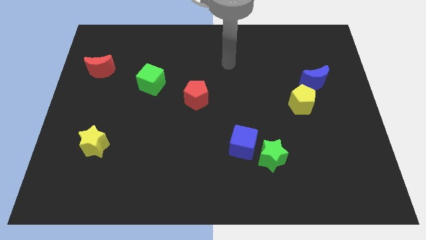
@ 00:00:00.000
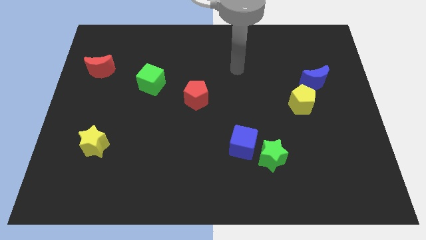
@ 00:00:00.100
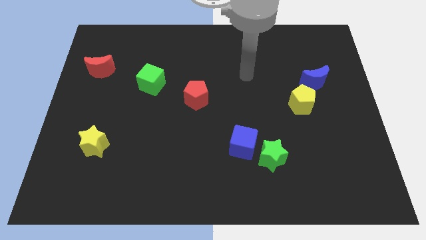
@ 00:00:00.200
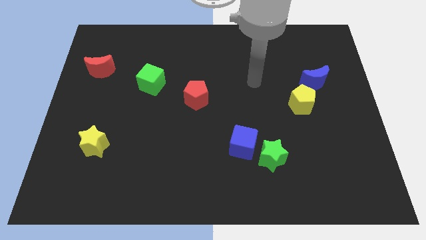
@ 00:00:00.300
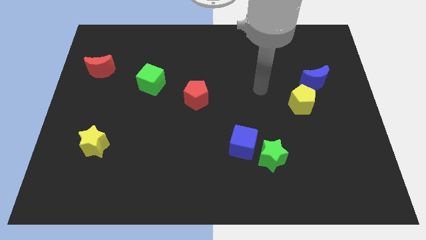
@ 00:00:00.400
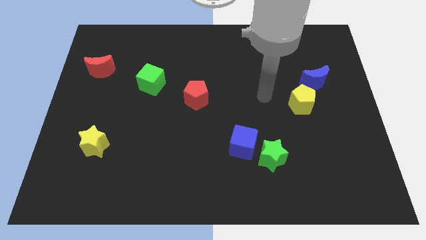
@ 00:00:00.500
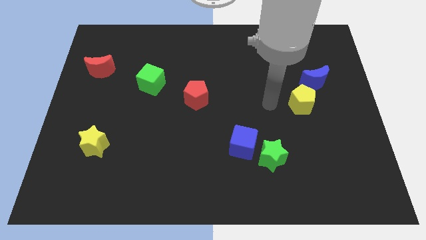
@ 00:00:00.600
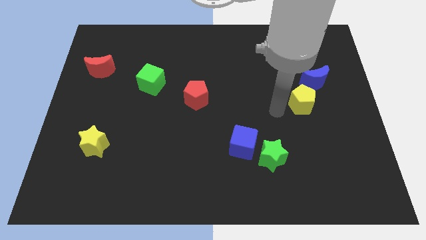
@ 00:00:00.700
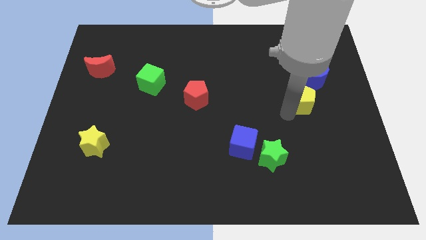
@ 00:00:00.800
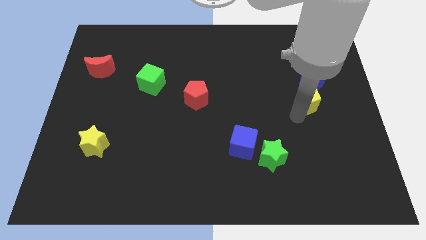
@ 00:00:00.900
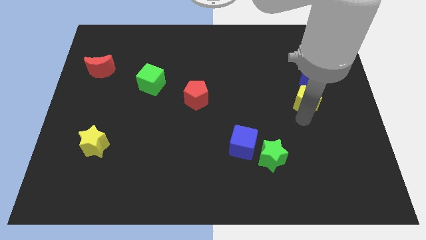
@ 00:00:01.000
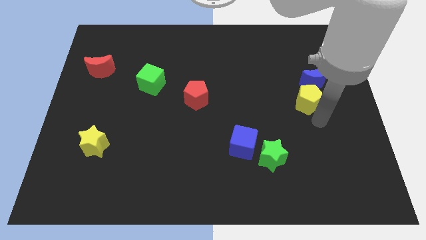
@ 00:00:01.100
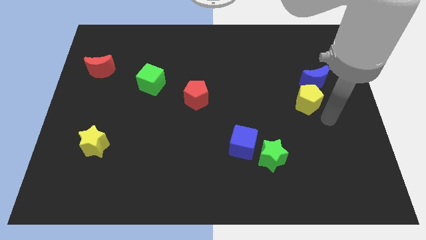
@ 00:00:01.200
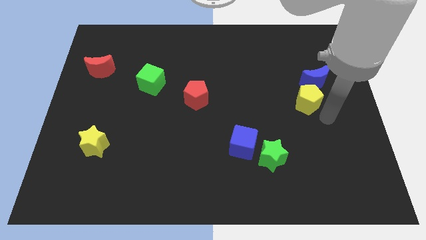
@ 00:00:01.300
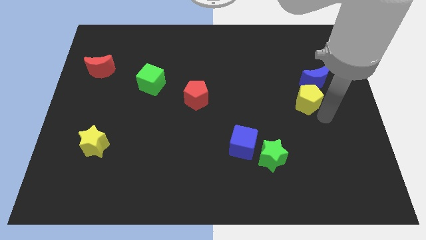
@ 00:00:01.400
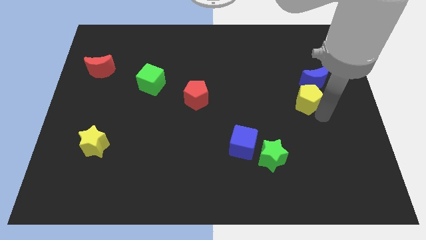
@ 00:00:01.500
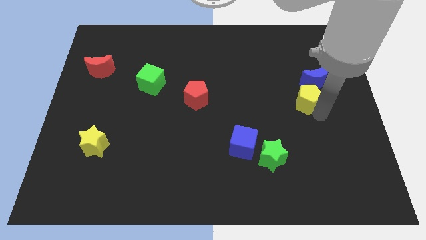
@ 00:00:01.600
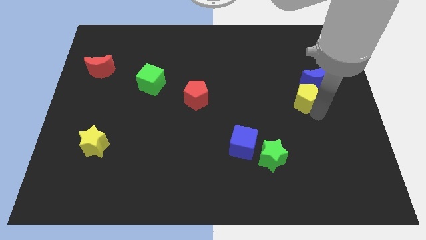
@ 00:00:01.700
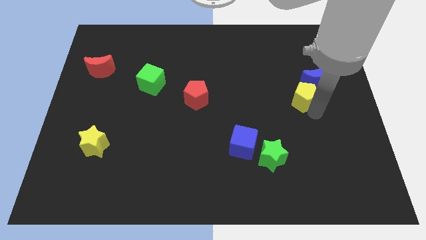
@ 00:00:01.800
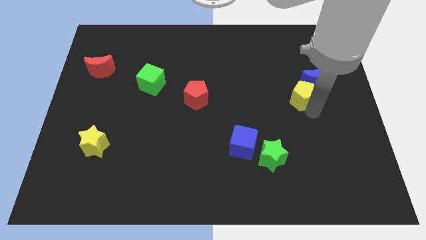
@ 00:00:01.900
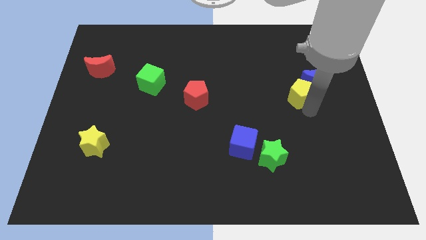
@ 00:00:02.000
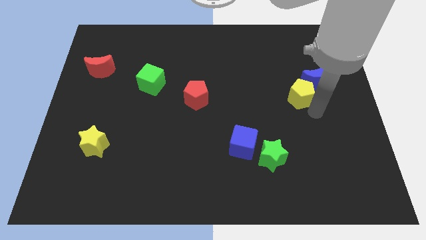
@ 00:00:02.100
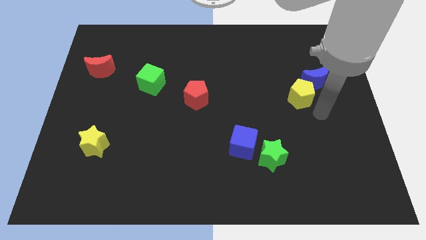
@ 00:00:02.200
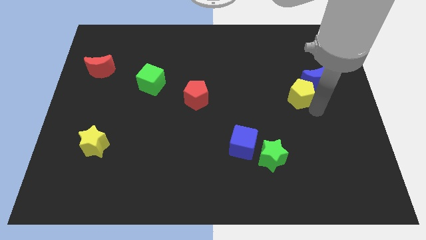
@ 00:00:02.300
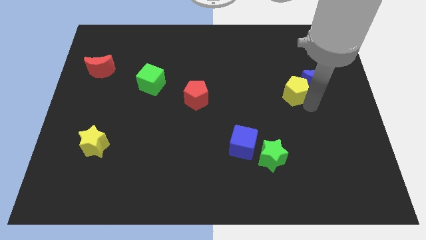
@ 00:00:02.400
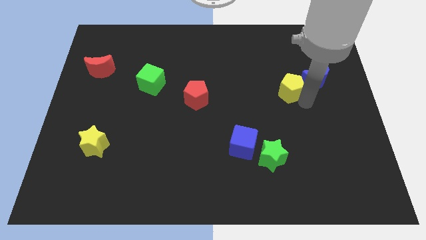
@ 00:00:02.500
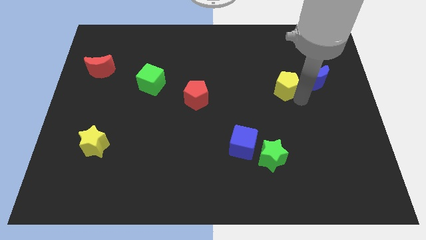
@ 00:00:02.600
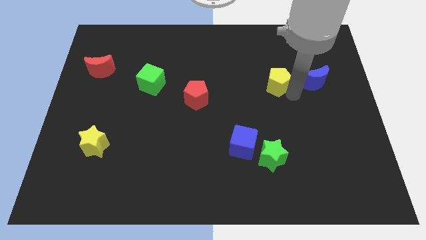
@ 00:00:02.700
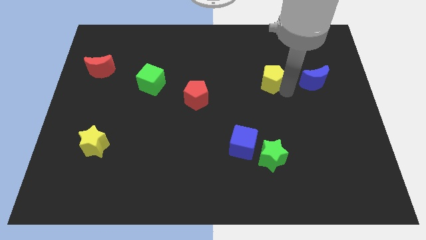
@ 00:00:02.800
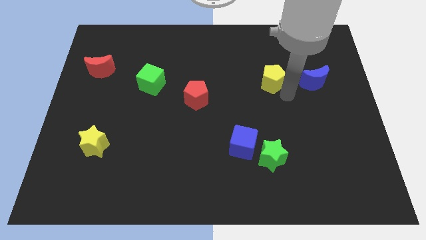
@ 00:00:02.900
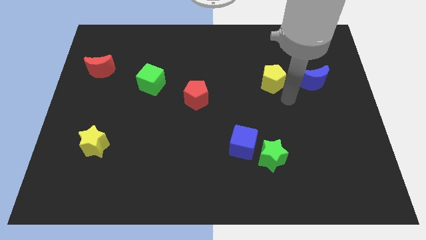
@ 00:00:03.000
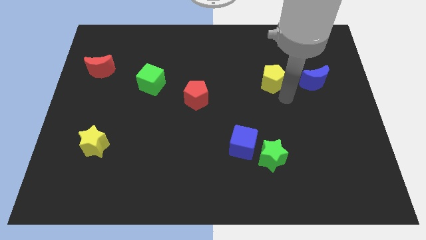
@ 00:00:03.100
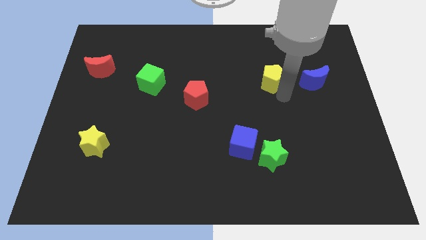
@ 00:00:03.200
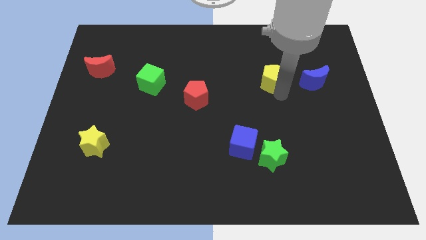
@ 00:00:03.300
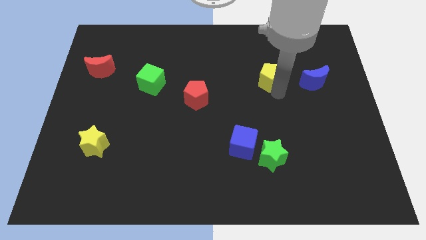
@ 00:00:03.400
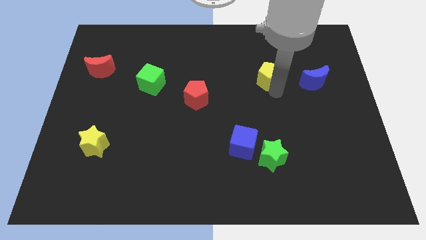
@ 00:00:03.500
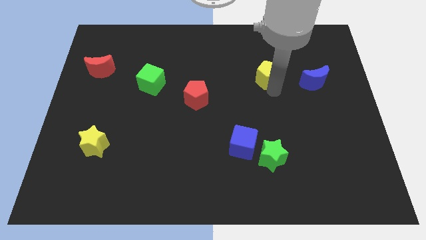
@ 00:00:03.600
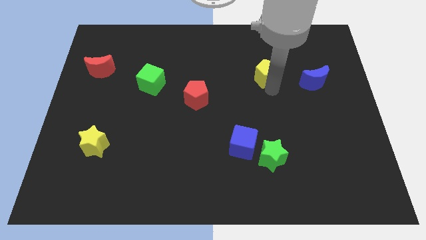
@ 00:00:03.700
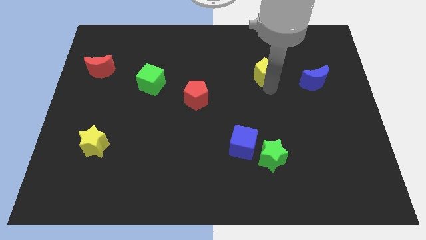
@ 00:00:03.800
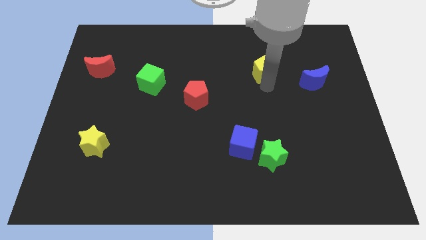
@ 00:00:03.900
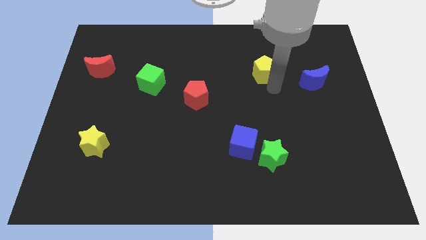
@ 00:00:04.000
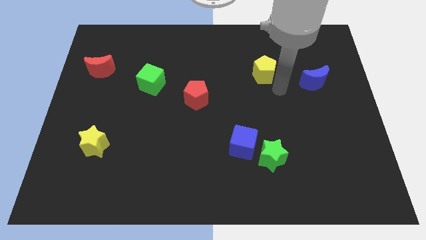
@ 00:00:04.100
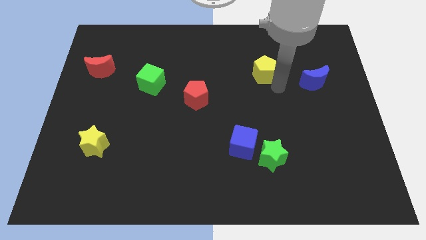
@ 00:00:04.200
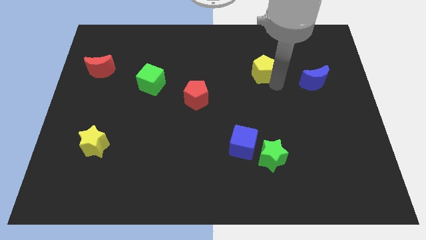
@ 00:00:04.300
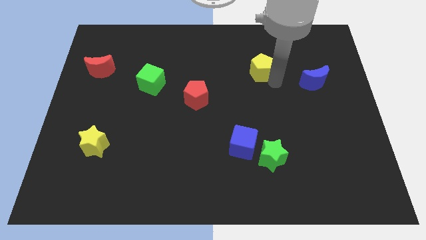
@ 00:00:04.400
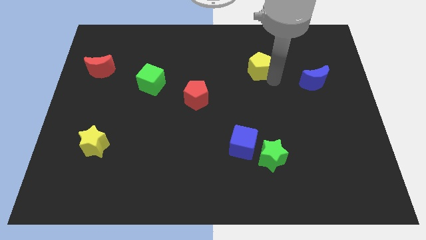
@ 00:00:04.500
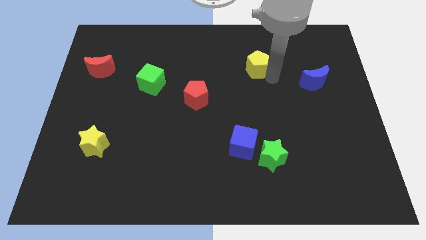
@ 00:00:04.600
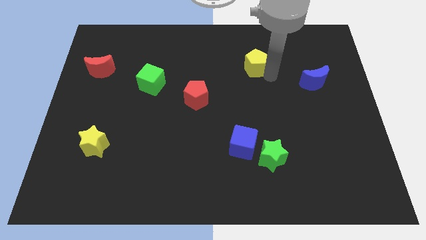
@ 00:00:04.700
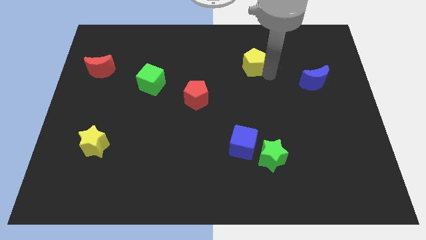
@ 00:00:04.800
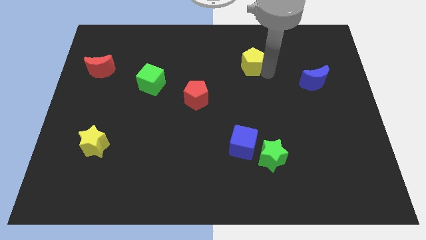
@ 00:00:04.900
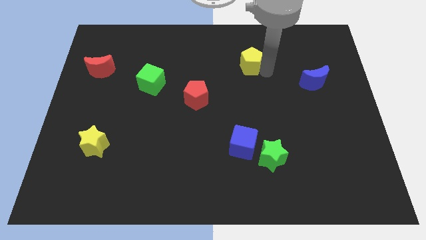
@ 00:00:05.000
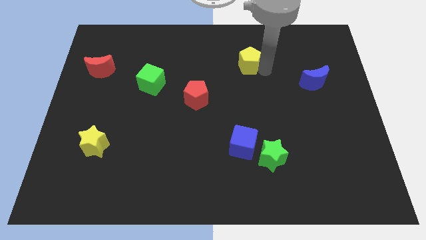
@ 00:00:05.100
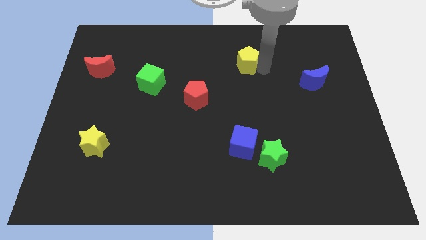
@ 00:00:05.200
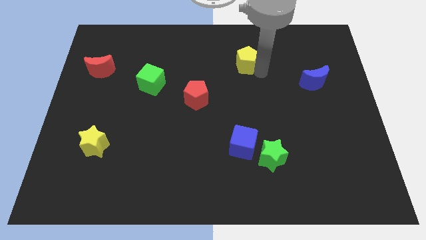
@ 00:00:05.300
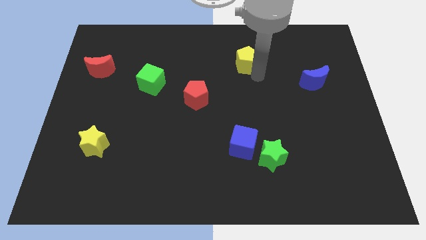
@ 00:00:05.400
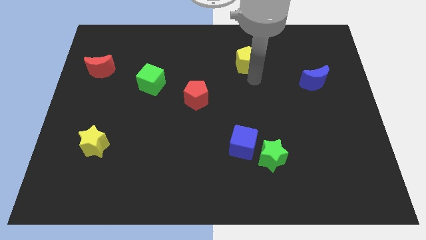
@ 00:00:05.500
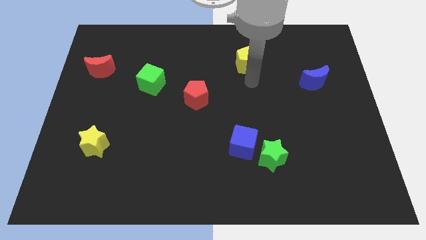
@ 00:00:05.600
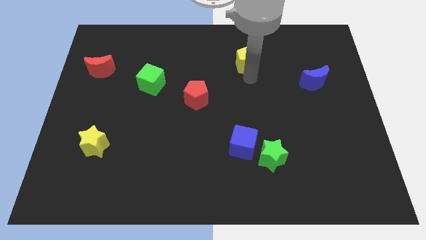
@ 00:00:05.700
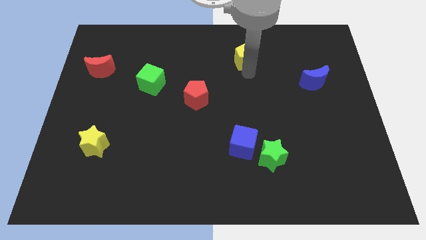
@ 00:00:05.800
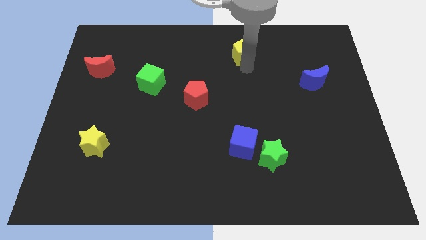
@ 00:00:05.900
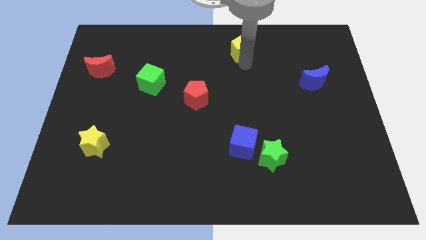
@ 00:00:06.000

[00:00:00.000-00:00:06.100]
put the yellow pentagon to the towards your base
